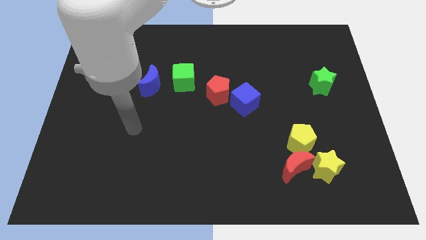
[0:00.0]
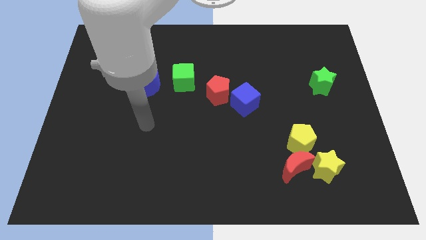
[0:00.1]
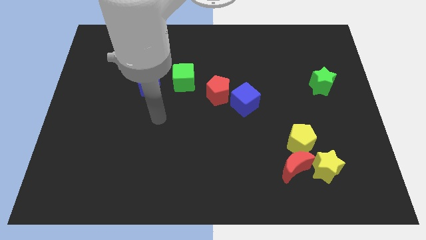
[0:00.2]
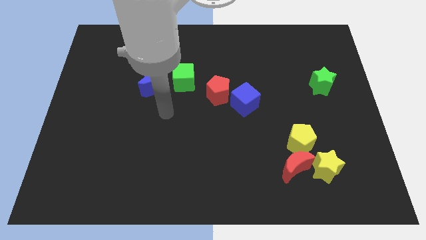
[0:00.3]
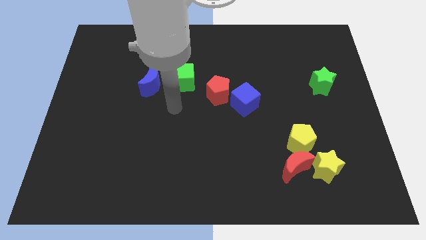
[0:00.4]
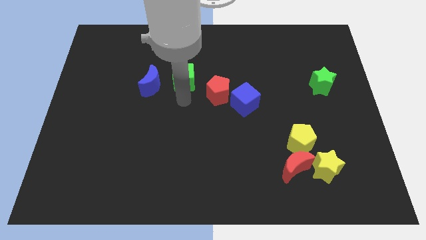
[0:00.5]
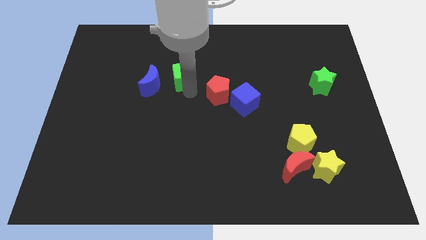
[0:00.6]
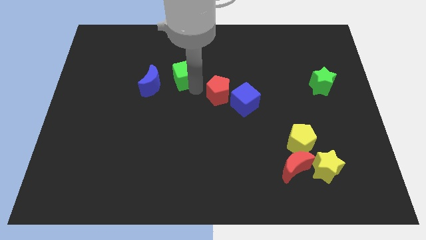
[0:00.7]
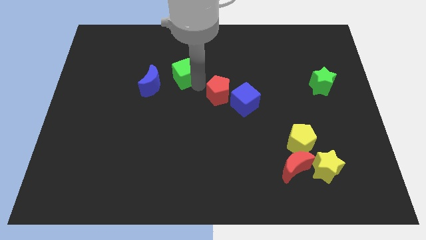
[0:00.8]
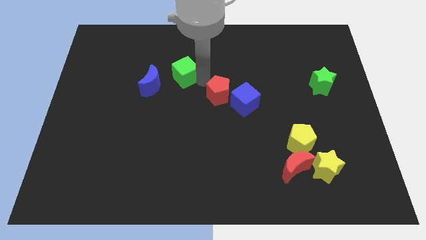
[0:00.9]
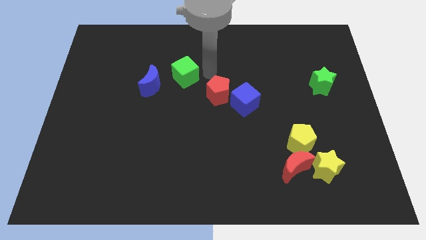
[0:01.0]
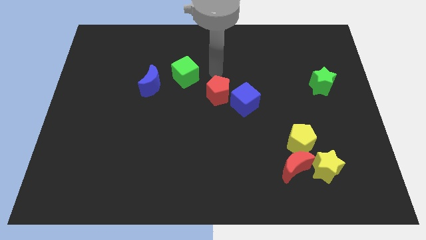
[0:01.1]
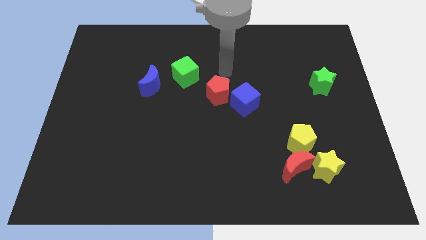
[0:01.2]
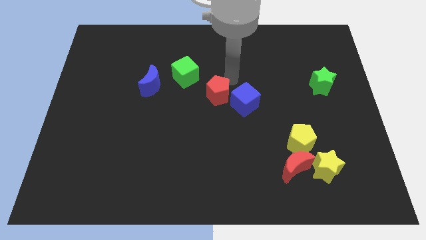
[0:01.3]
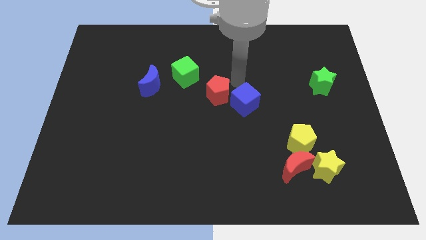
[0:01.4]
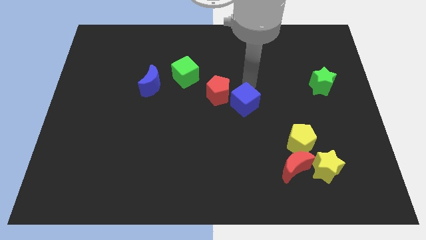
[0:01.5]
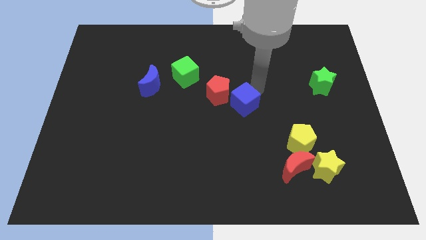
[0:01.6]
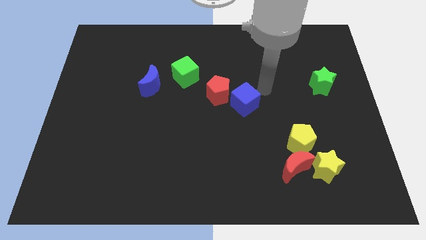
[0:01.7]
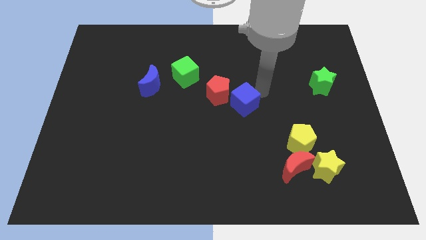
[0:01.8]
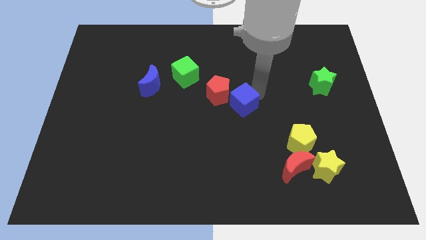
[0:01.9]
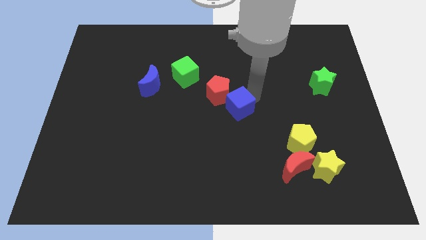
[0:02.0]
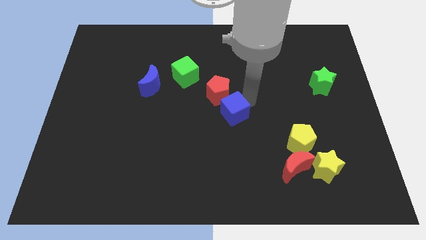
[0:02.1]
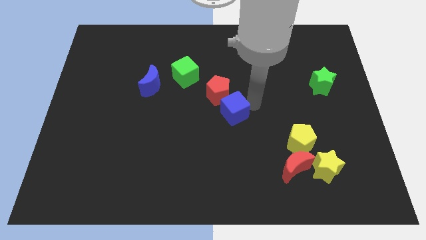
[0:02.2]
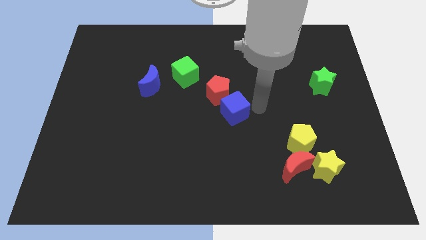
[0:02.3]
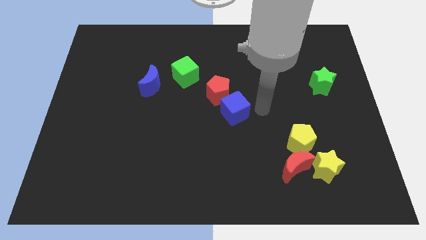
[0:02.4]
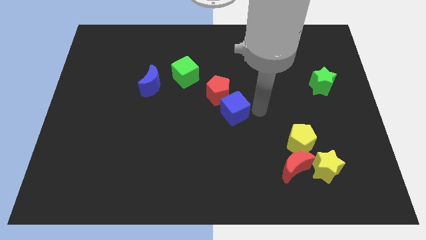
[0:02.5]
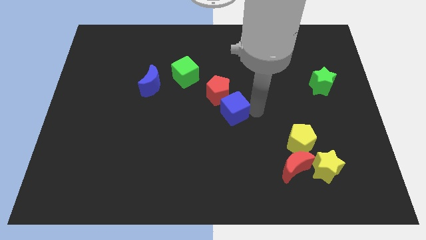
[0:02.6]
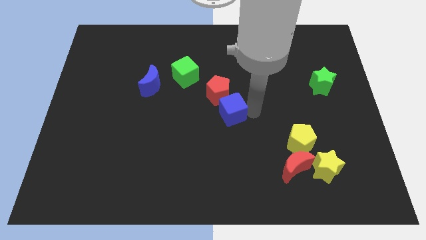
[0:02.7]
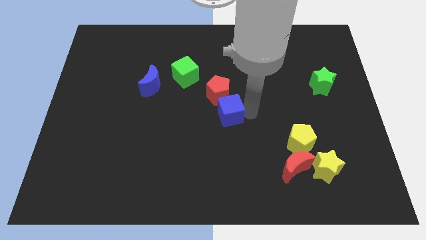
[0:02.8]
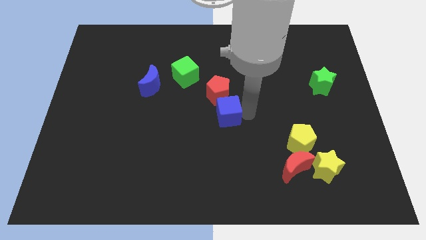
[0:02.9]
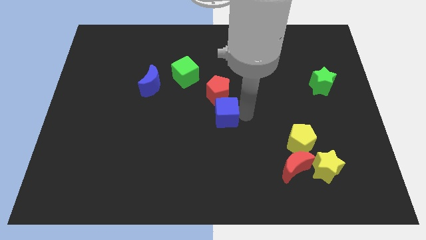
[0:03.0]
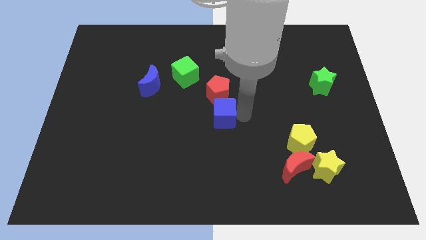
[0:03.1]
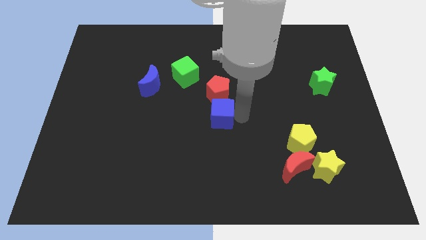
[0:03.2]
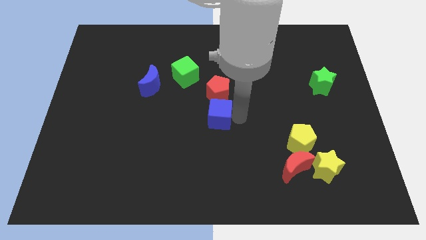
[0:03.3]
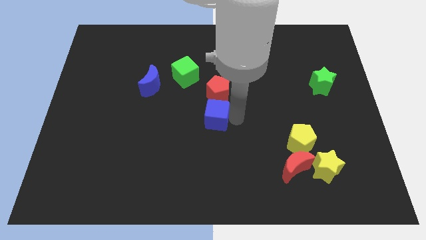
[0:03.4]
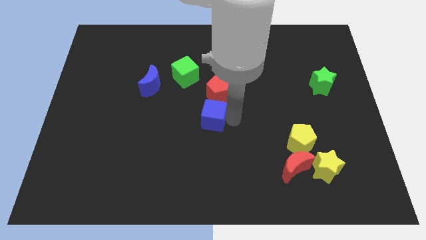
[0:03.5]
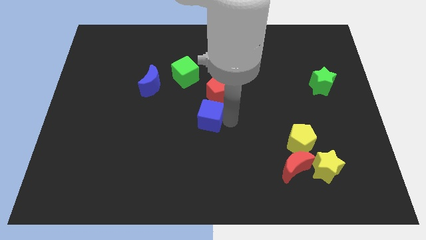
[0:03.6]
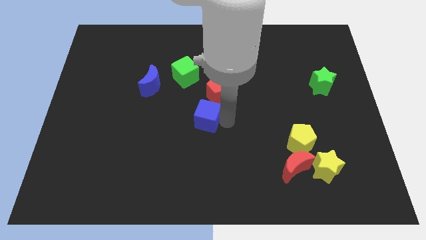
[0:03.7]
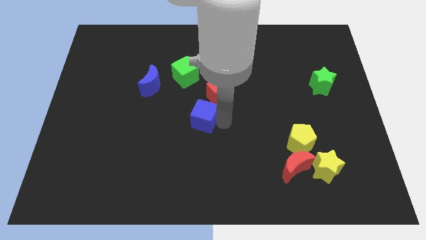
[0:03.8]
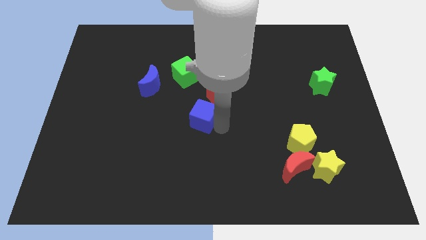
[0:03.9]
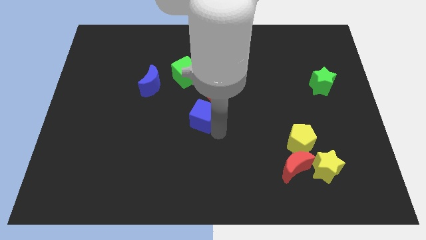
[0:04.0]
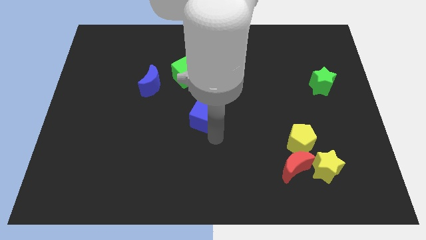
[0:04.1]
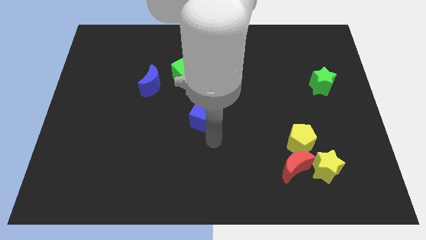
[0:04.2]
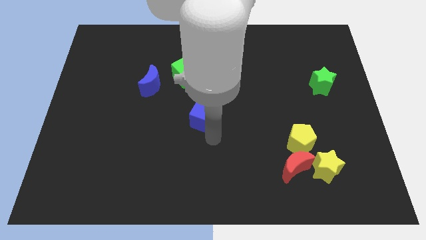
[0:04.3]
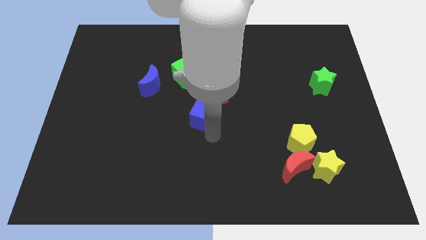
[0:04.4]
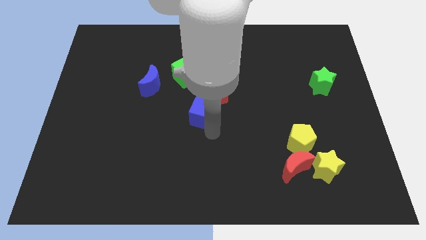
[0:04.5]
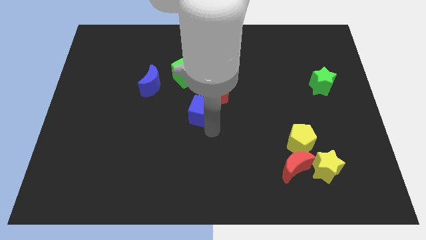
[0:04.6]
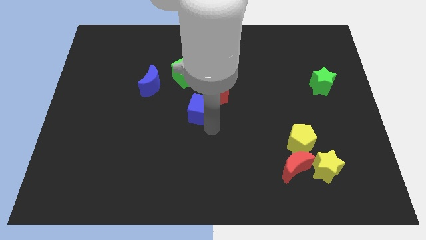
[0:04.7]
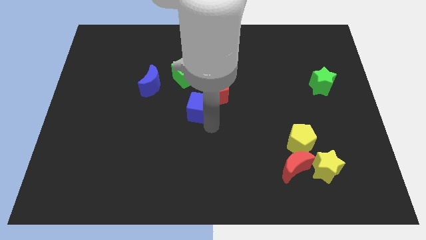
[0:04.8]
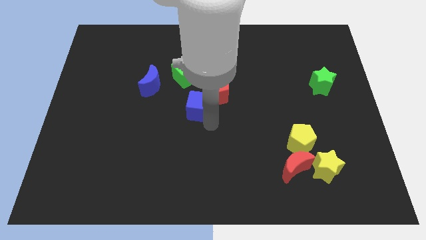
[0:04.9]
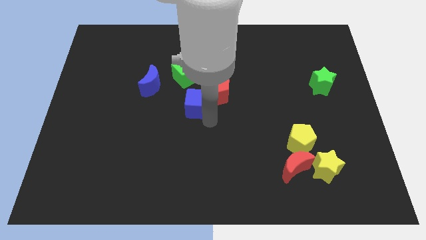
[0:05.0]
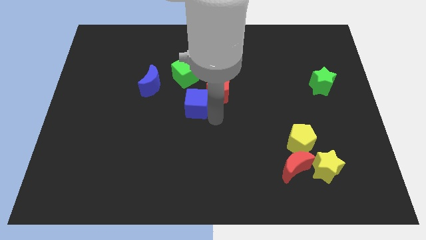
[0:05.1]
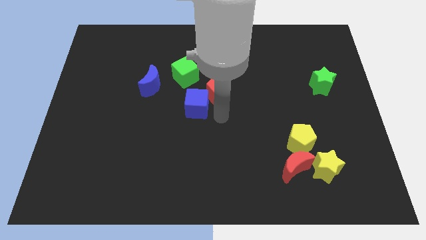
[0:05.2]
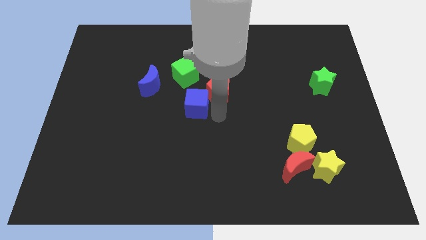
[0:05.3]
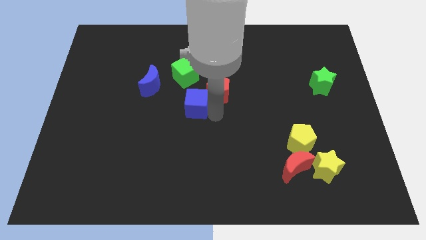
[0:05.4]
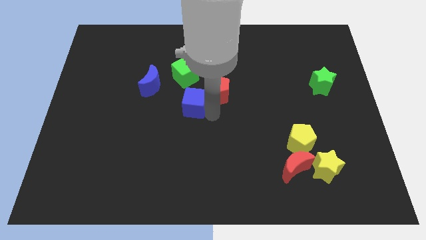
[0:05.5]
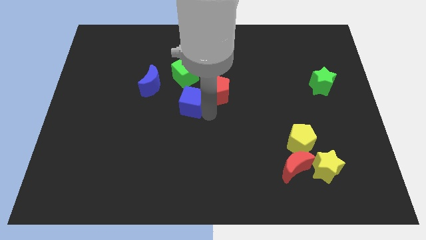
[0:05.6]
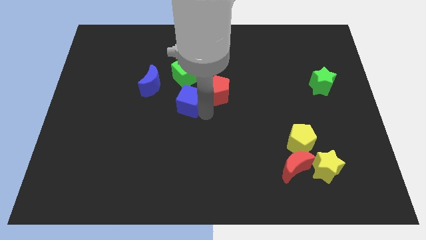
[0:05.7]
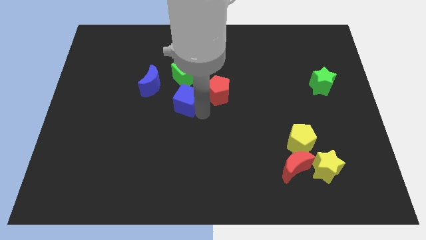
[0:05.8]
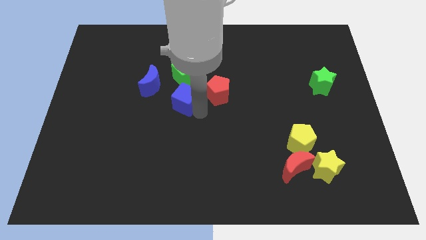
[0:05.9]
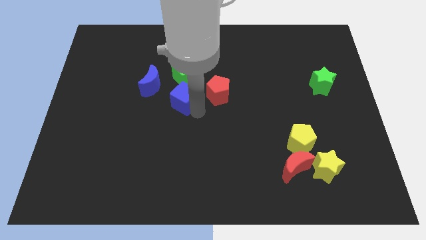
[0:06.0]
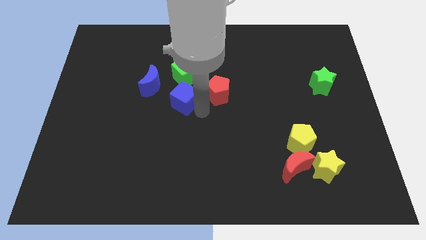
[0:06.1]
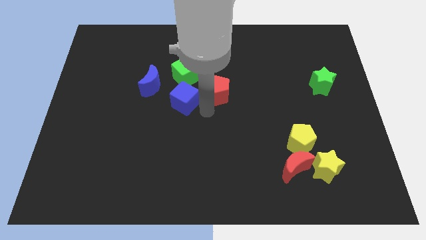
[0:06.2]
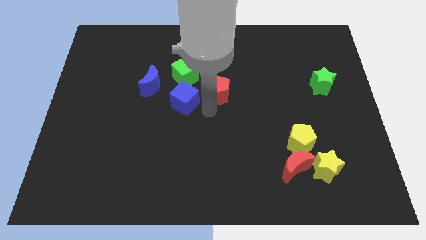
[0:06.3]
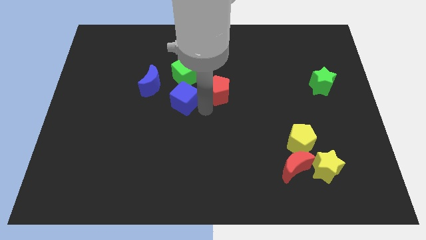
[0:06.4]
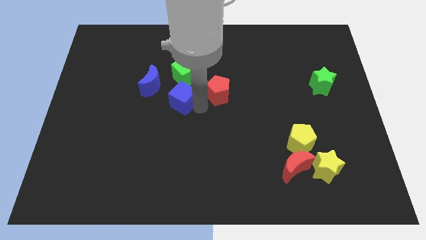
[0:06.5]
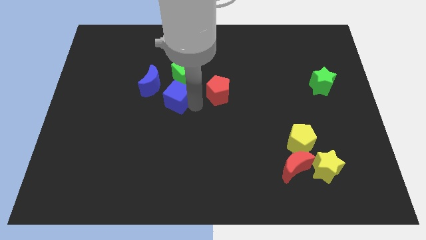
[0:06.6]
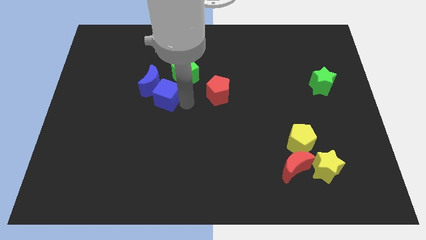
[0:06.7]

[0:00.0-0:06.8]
push the blue cube next to the blue moon

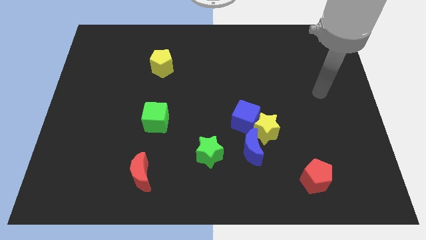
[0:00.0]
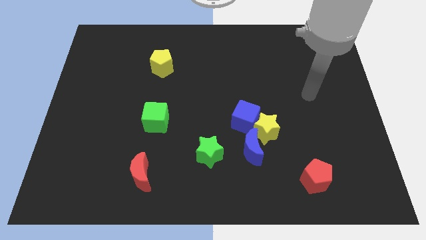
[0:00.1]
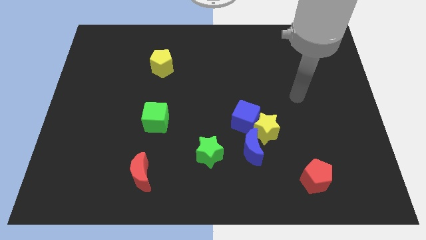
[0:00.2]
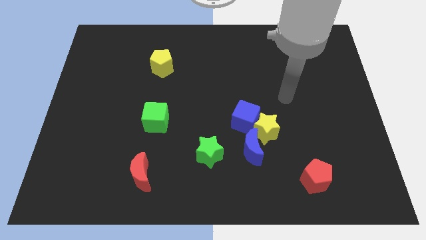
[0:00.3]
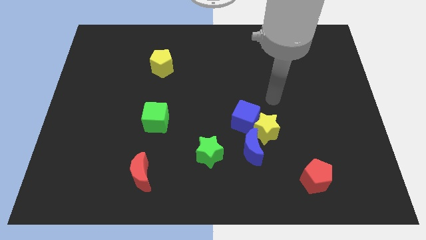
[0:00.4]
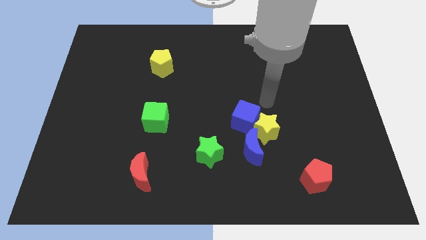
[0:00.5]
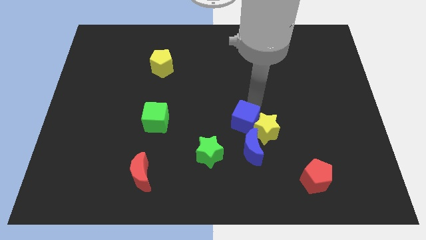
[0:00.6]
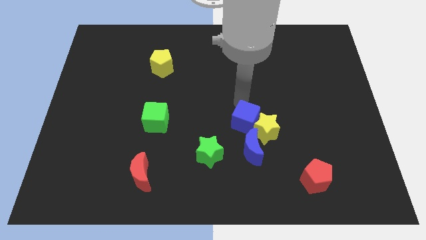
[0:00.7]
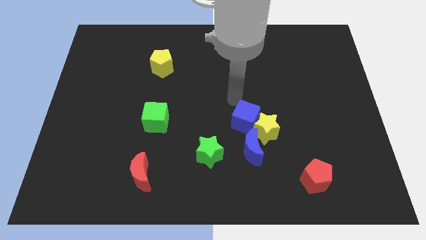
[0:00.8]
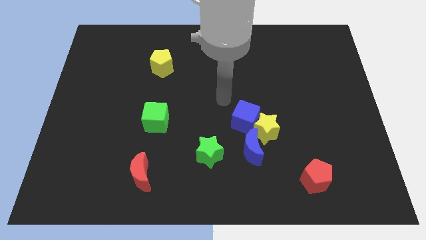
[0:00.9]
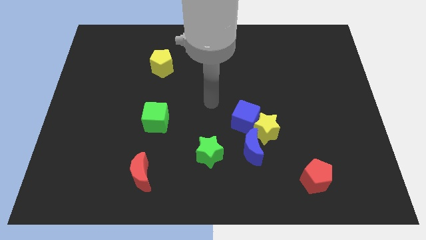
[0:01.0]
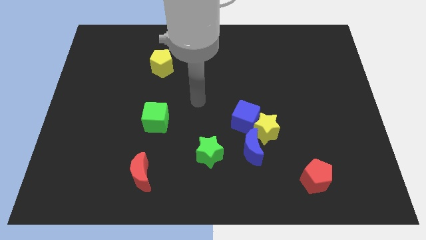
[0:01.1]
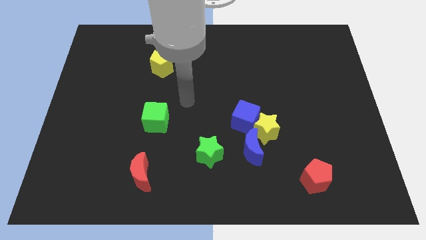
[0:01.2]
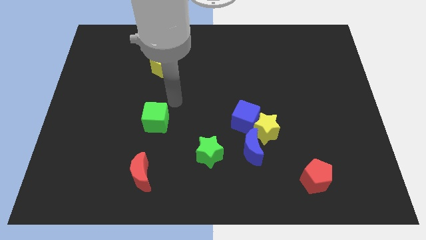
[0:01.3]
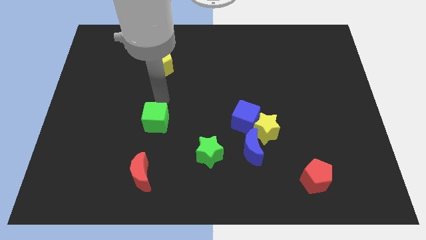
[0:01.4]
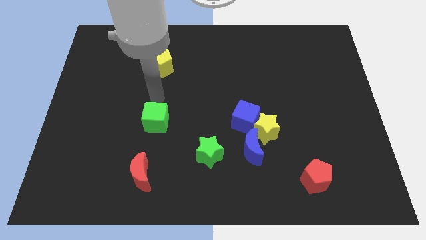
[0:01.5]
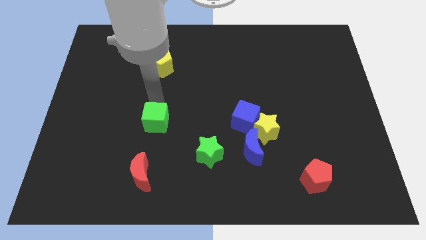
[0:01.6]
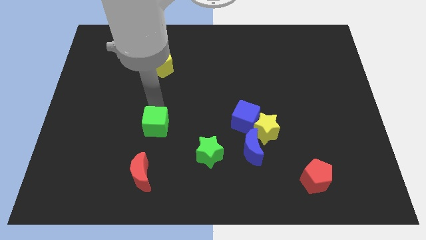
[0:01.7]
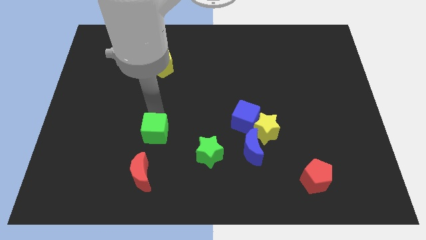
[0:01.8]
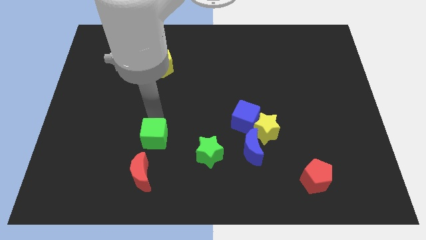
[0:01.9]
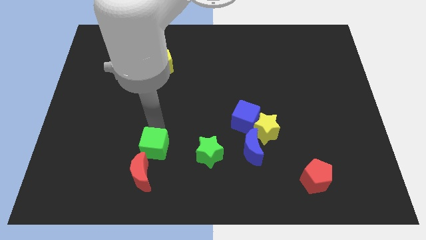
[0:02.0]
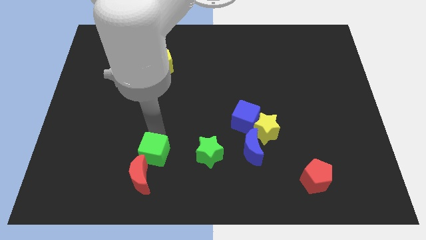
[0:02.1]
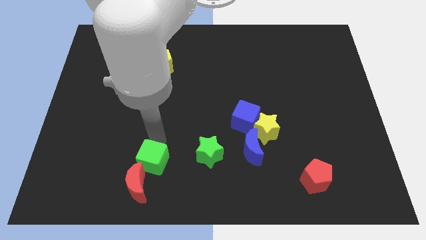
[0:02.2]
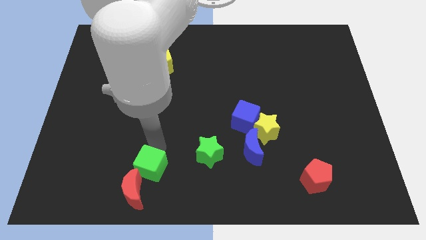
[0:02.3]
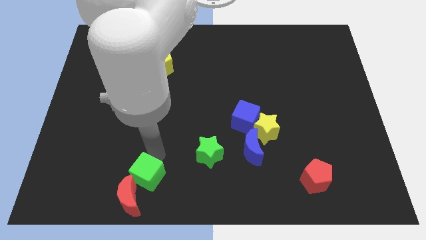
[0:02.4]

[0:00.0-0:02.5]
move the green cube close to the red moon
